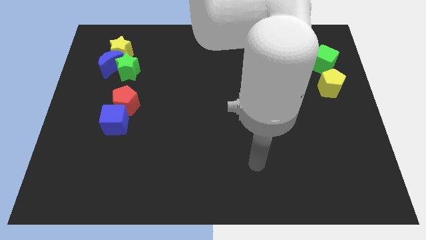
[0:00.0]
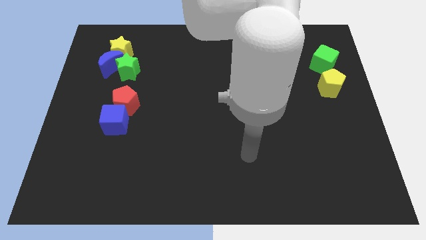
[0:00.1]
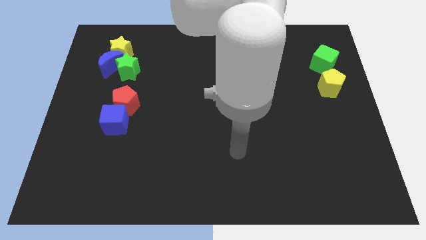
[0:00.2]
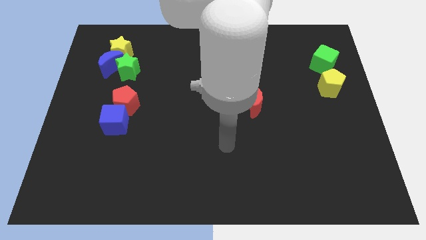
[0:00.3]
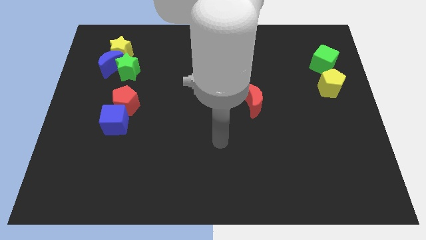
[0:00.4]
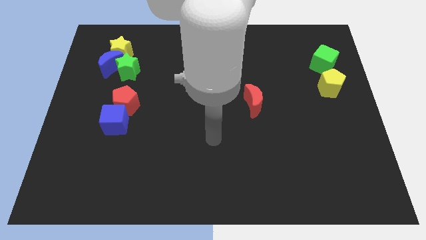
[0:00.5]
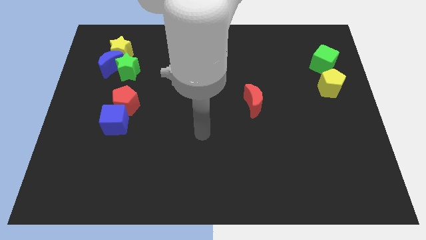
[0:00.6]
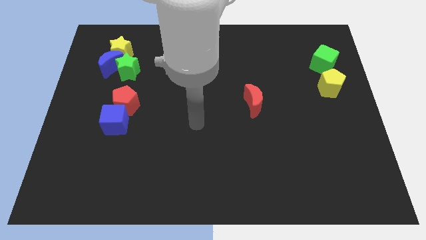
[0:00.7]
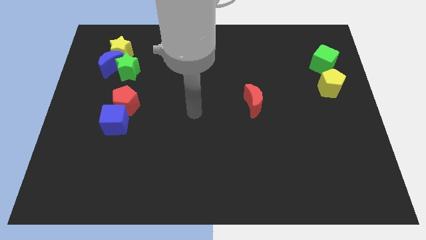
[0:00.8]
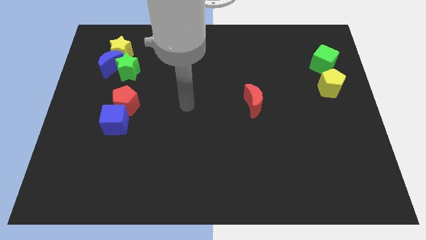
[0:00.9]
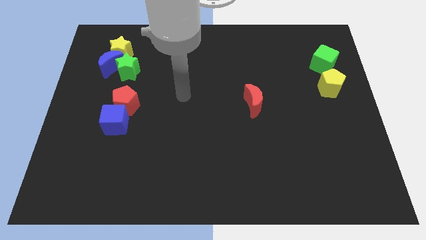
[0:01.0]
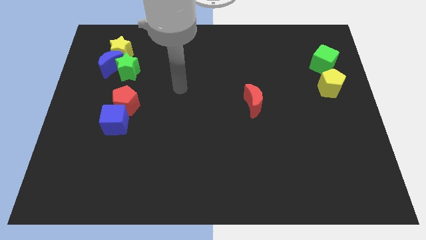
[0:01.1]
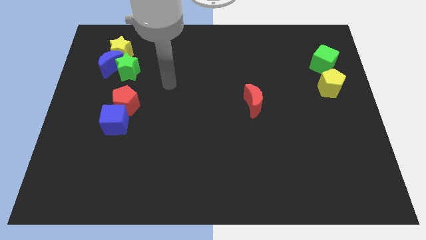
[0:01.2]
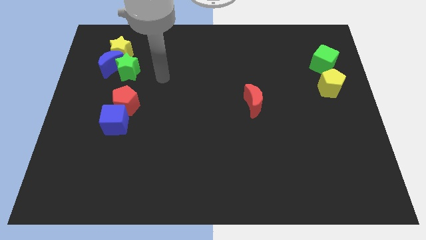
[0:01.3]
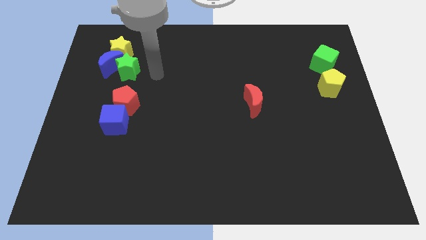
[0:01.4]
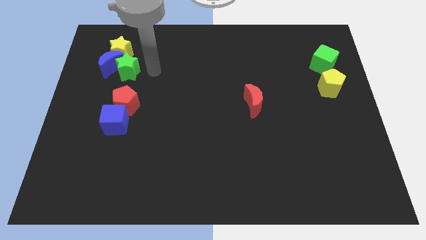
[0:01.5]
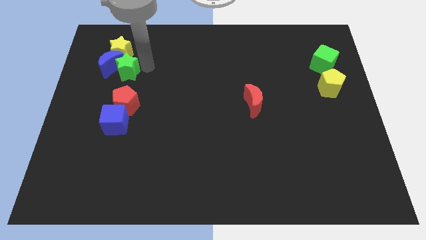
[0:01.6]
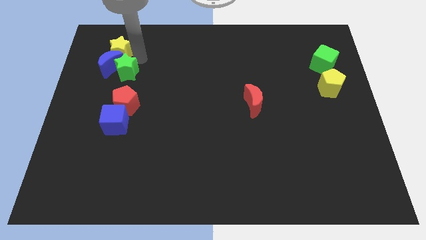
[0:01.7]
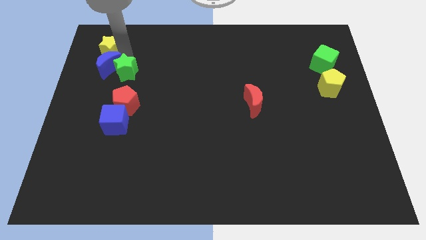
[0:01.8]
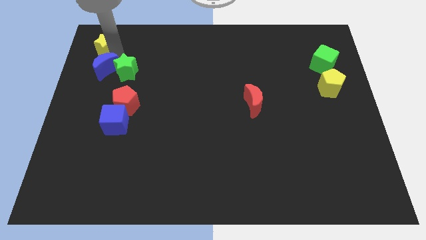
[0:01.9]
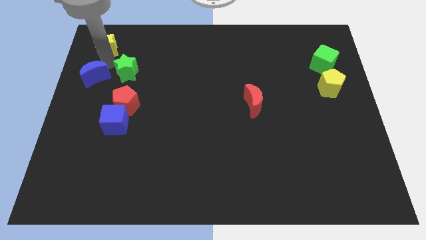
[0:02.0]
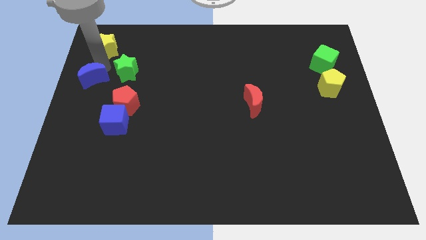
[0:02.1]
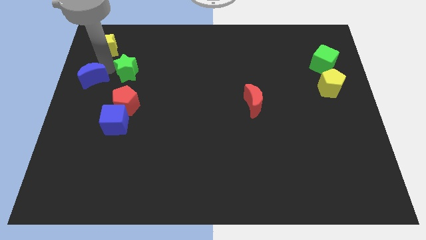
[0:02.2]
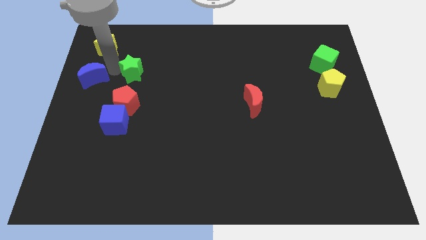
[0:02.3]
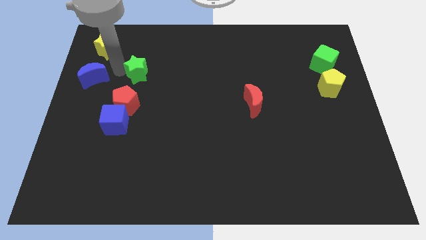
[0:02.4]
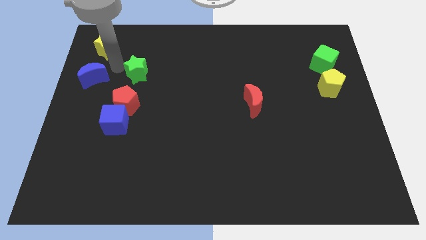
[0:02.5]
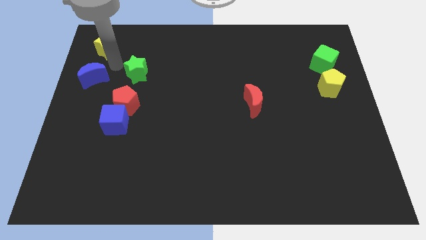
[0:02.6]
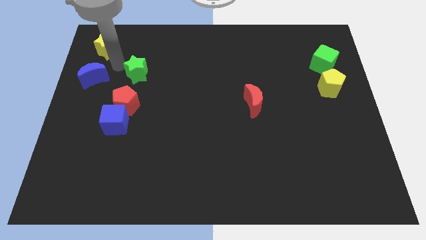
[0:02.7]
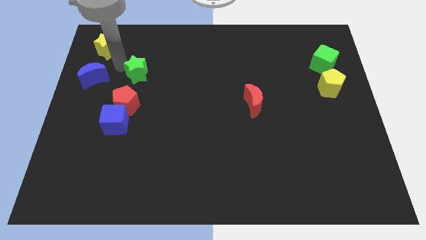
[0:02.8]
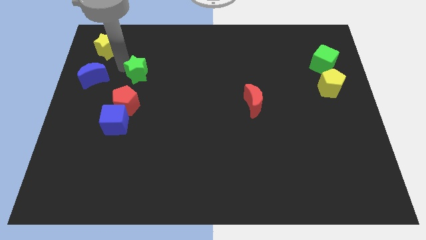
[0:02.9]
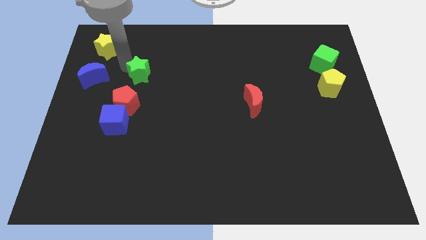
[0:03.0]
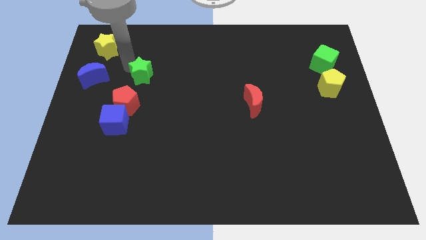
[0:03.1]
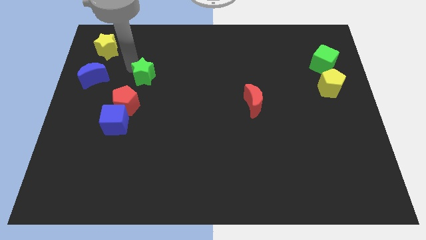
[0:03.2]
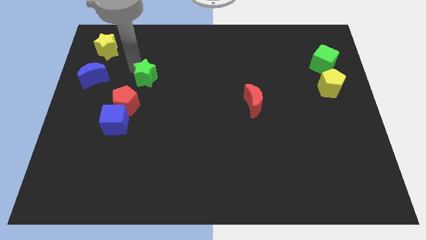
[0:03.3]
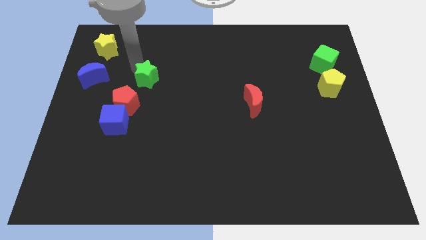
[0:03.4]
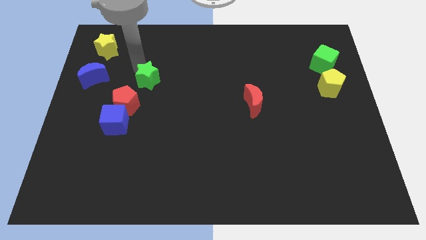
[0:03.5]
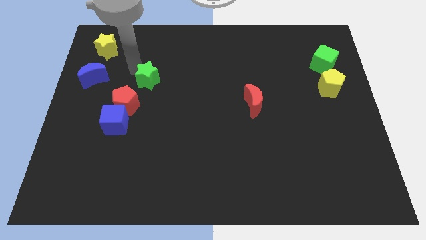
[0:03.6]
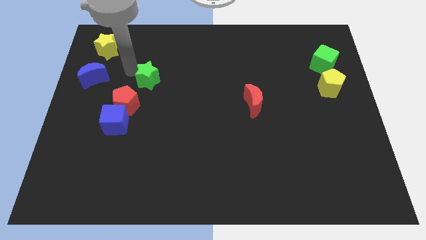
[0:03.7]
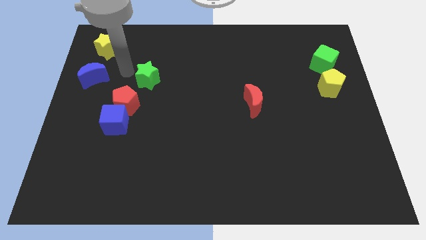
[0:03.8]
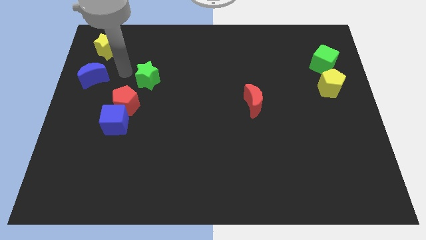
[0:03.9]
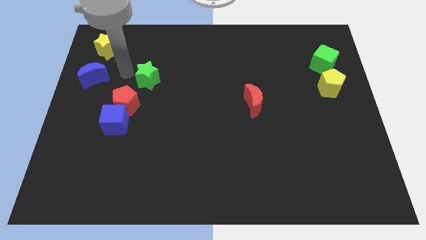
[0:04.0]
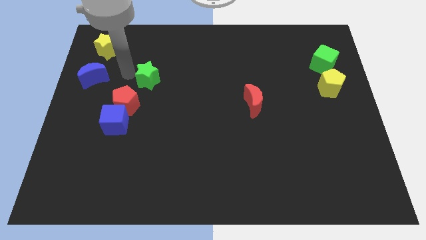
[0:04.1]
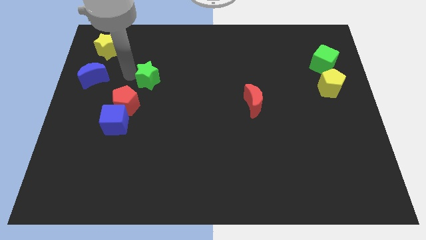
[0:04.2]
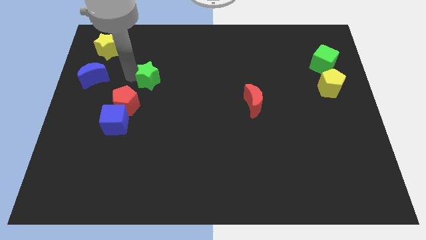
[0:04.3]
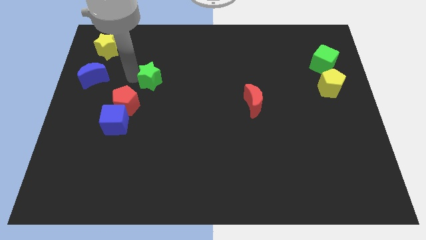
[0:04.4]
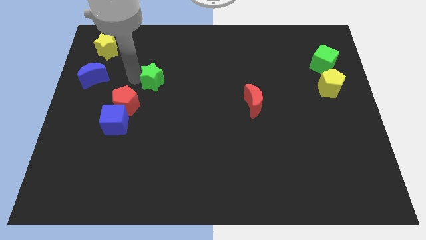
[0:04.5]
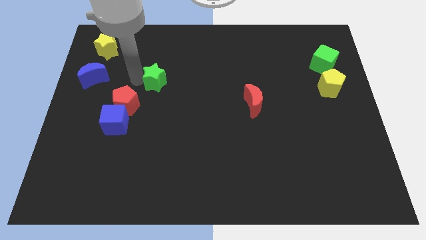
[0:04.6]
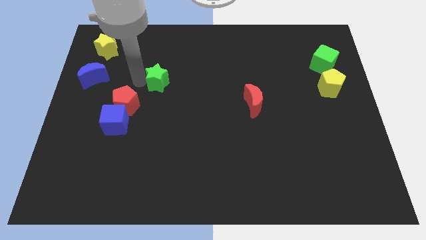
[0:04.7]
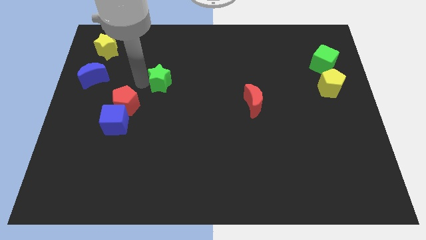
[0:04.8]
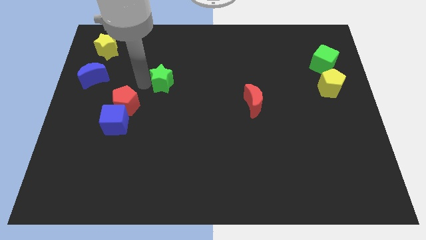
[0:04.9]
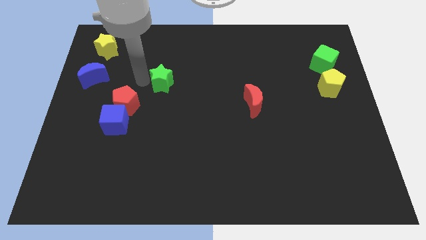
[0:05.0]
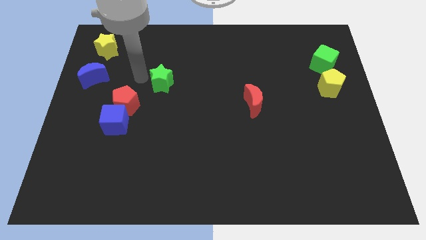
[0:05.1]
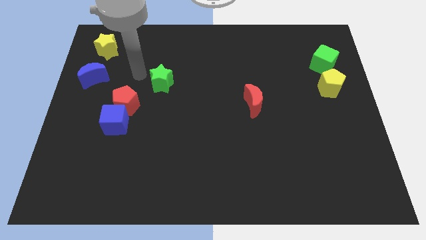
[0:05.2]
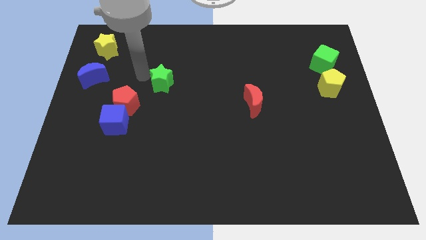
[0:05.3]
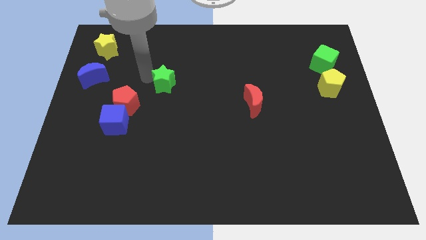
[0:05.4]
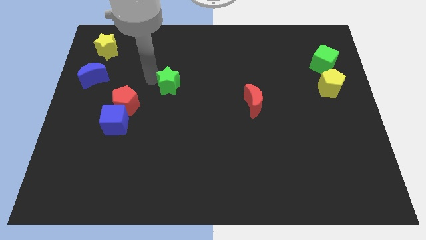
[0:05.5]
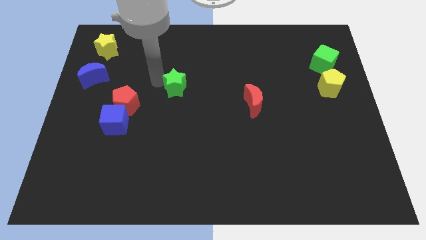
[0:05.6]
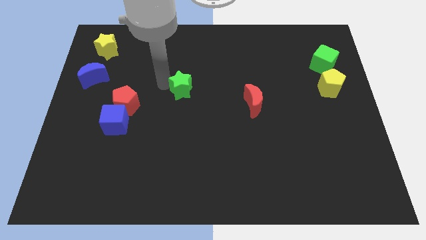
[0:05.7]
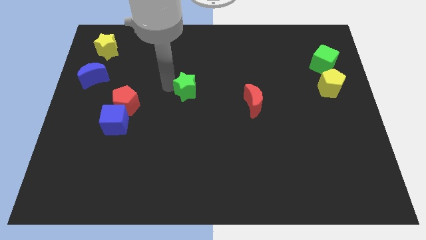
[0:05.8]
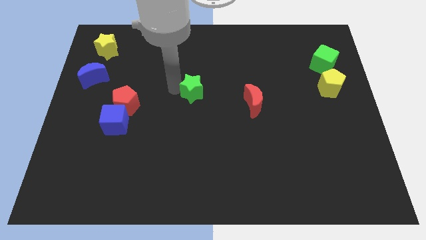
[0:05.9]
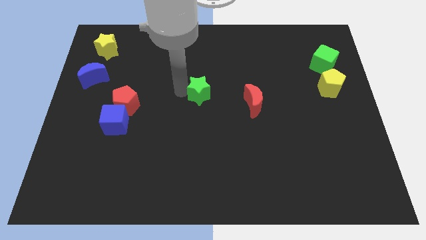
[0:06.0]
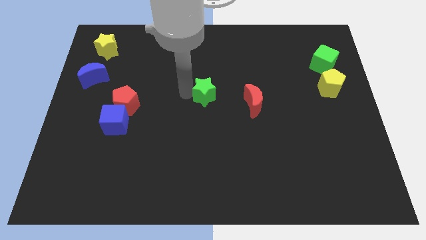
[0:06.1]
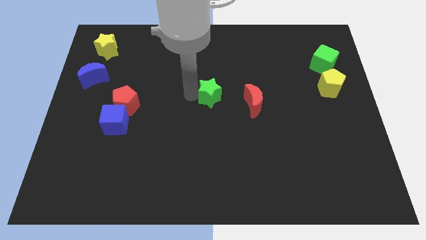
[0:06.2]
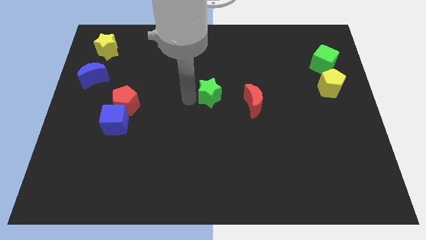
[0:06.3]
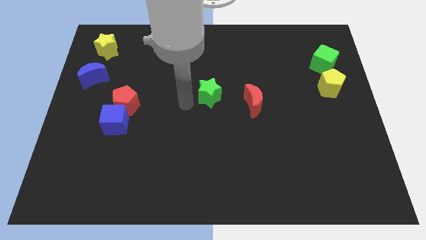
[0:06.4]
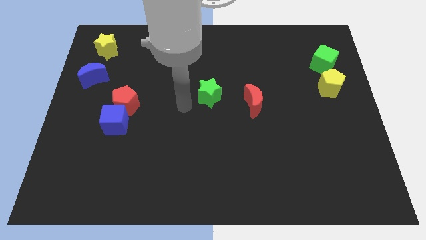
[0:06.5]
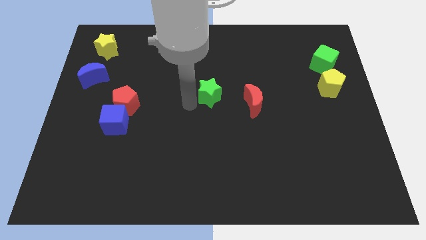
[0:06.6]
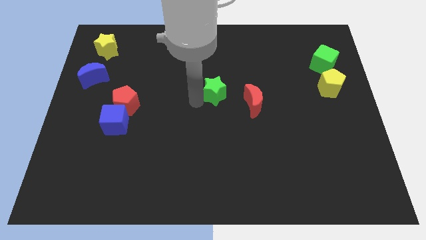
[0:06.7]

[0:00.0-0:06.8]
move the green star diagonally up and to the left of the red moon
